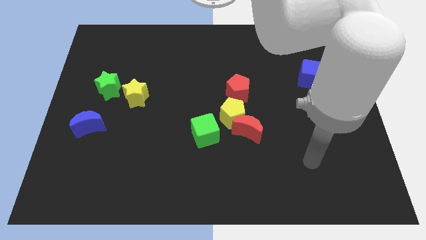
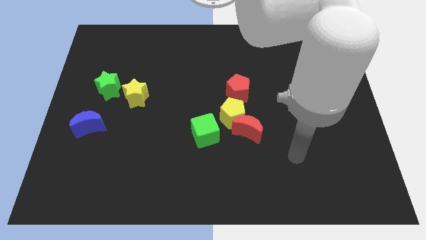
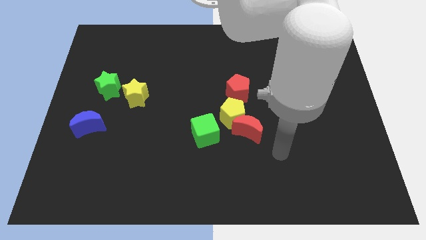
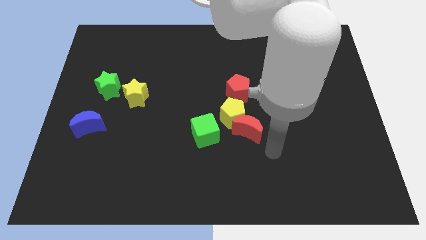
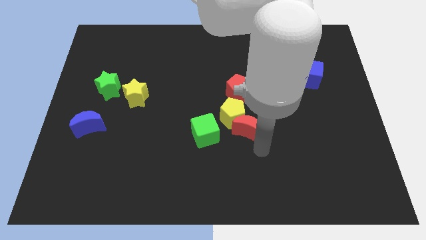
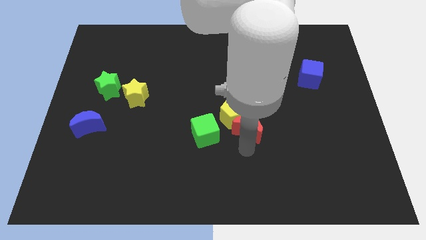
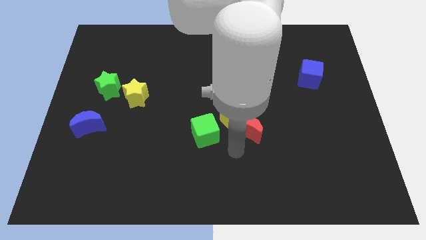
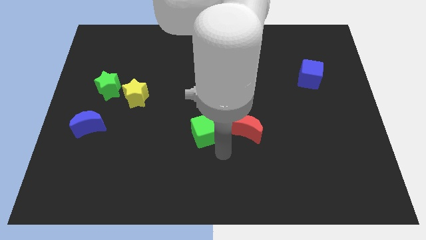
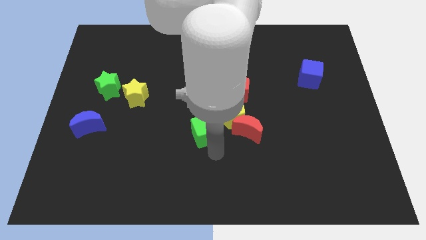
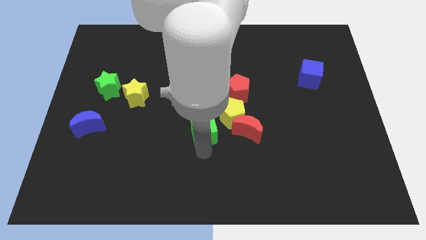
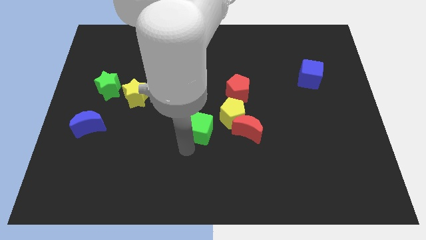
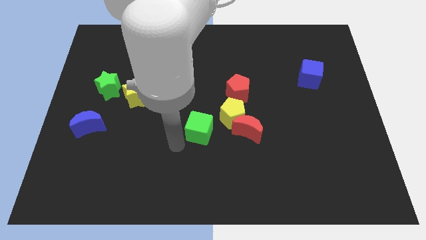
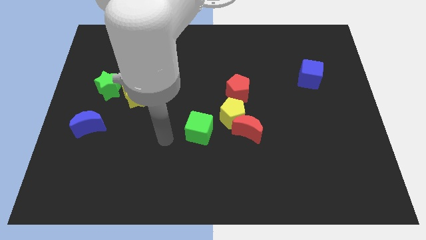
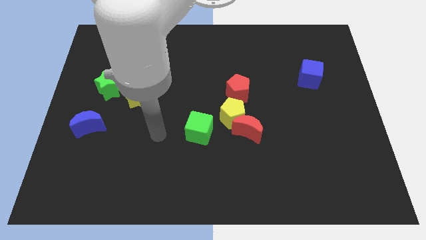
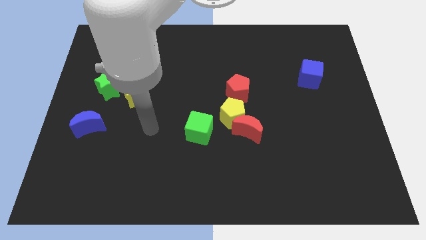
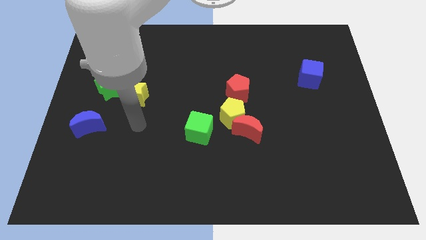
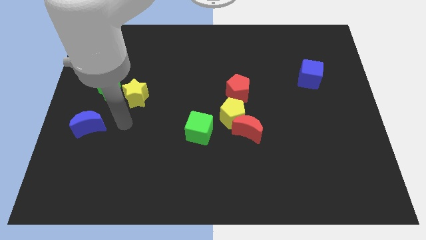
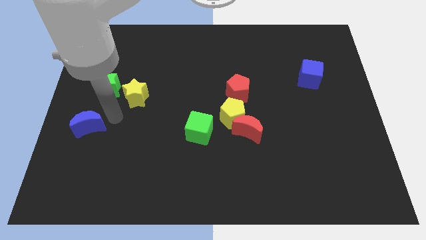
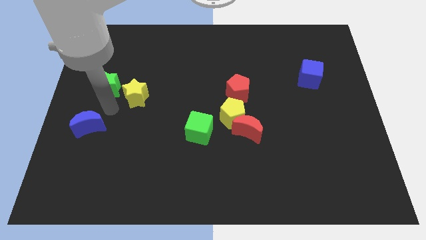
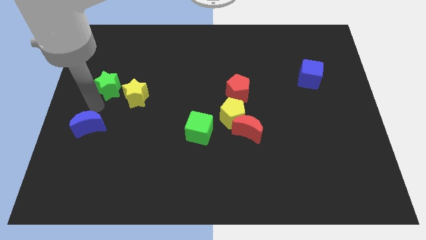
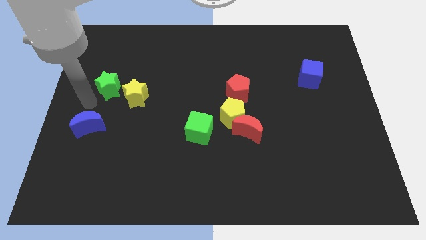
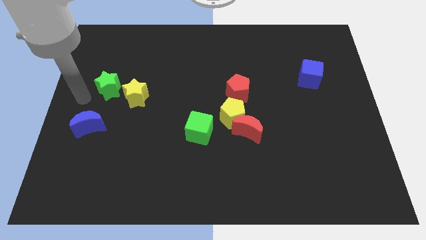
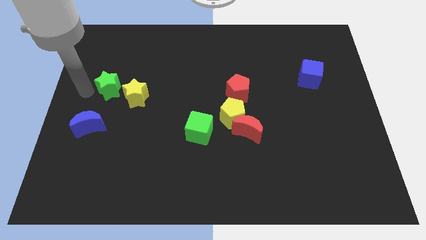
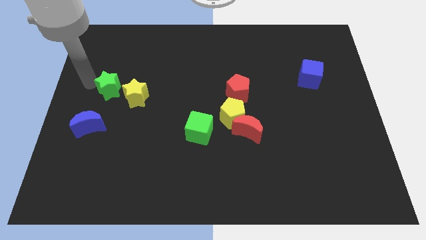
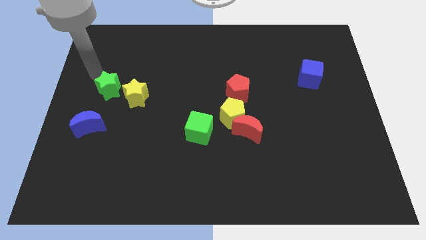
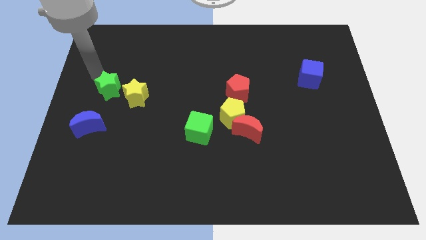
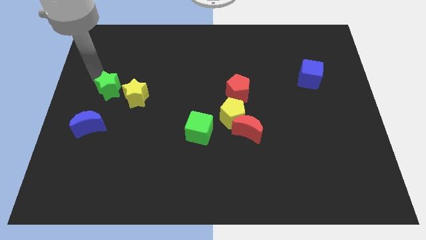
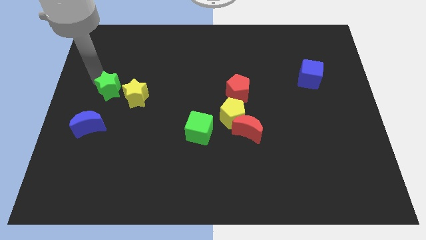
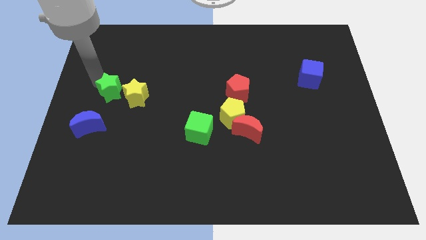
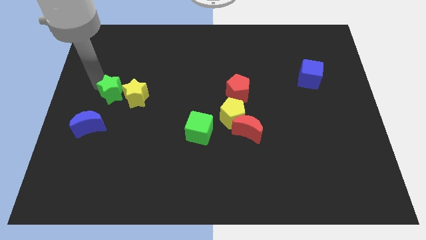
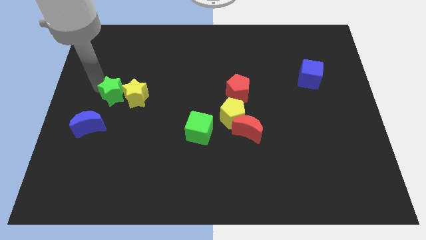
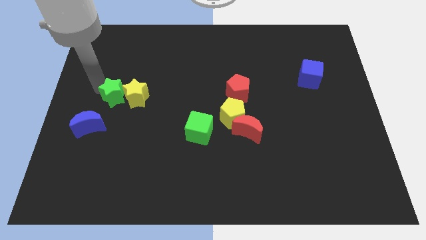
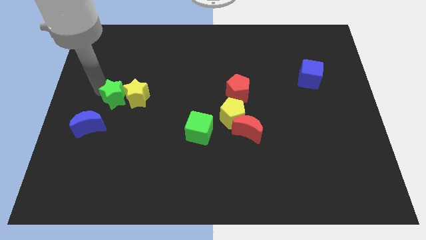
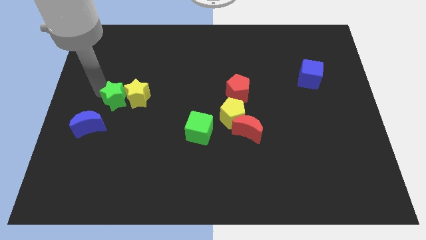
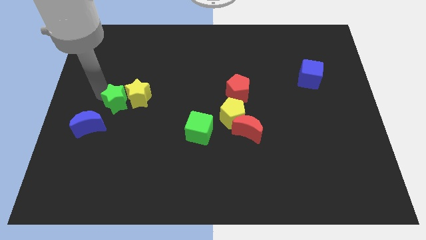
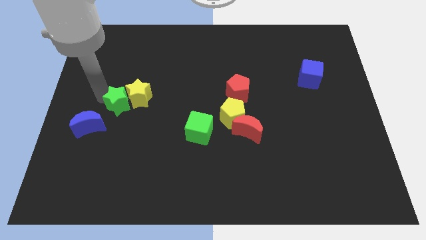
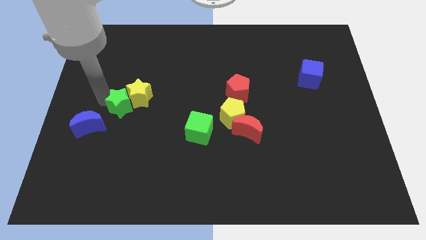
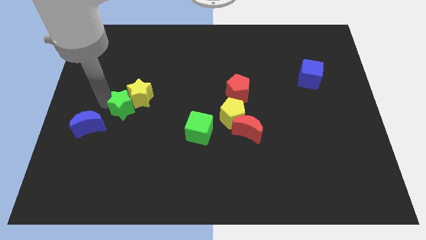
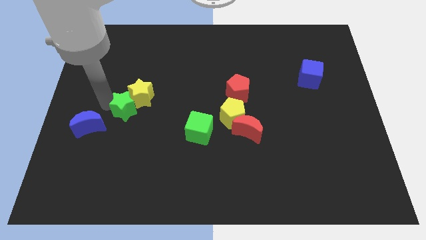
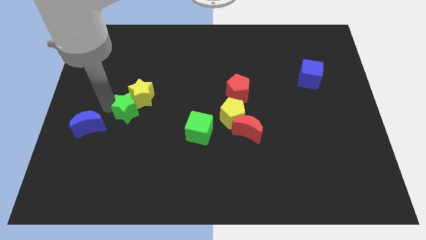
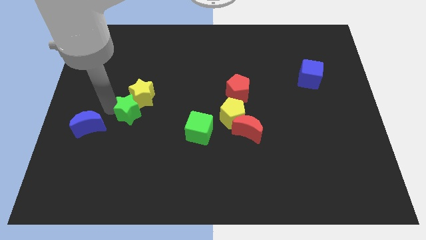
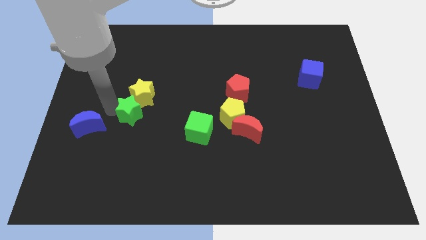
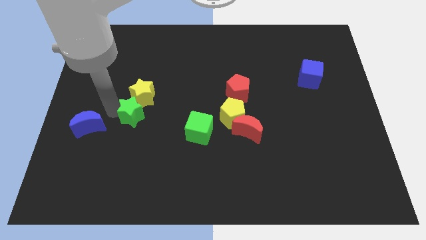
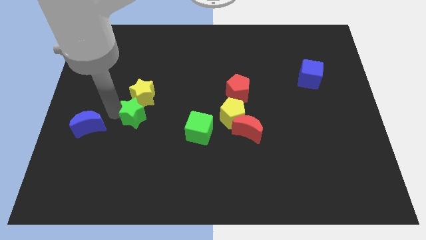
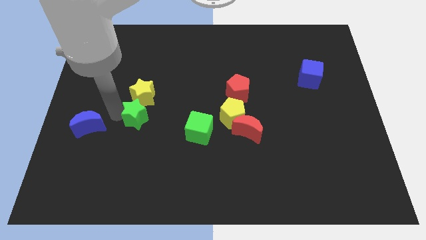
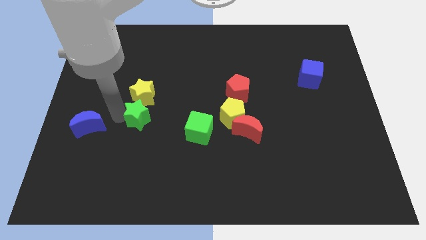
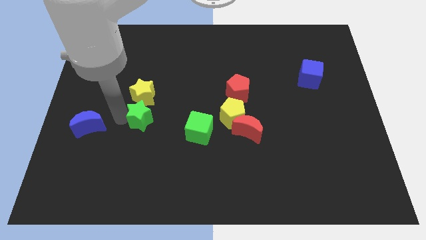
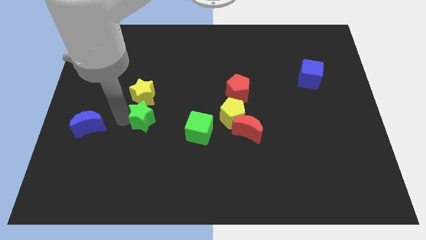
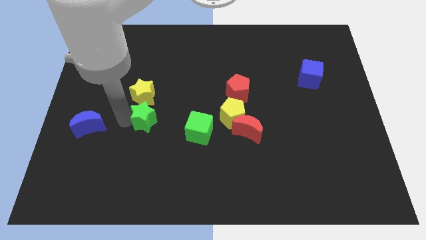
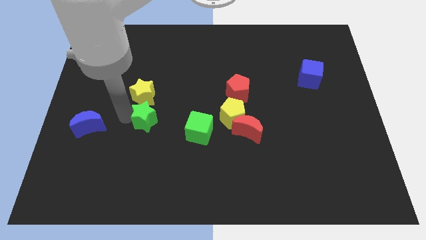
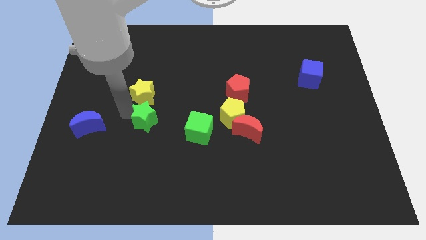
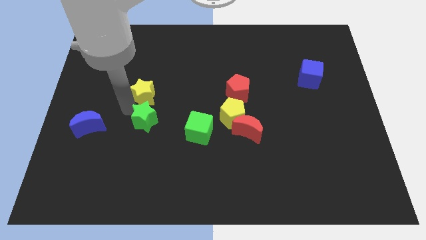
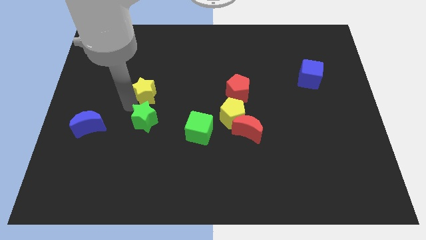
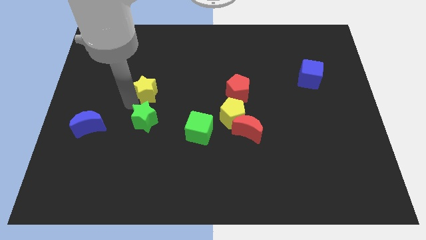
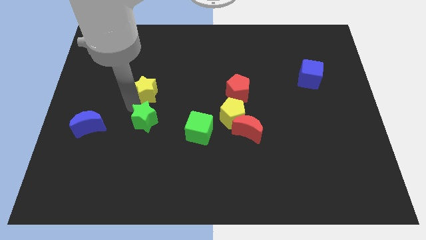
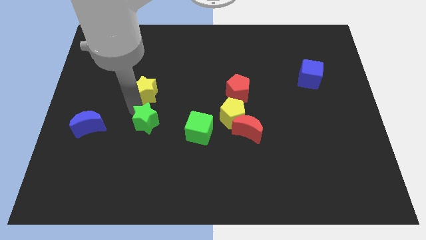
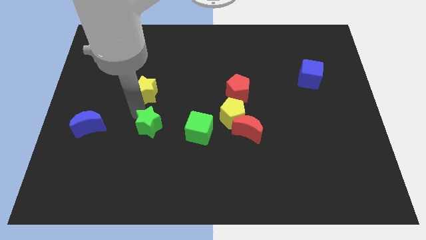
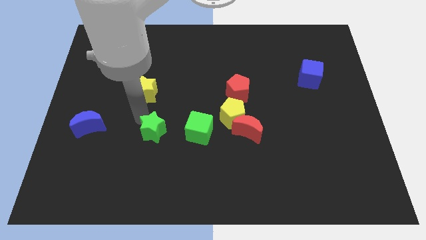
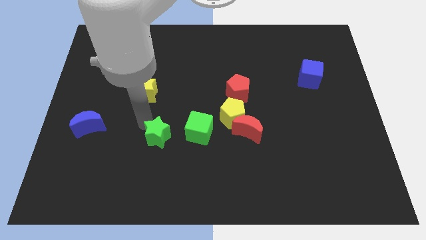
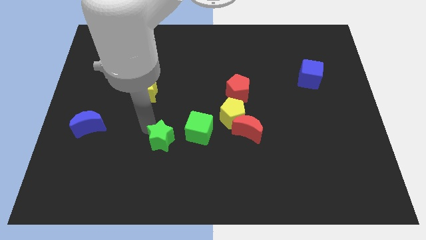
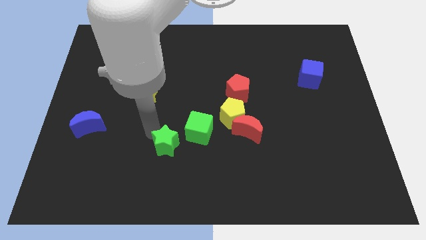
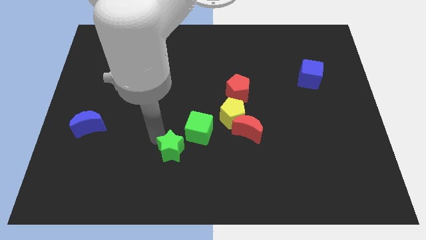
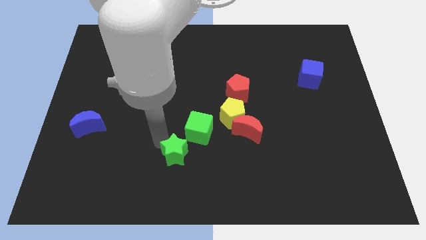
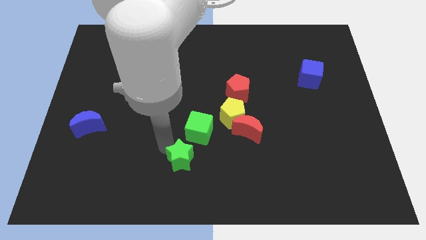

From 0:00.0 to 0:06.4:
put the green star to the bottom side of the green cube
